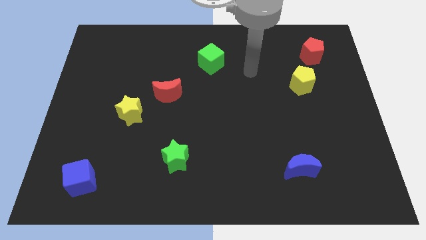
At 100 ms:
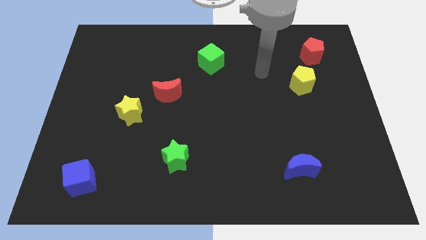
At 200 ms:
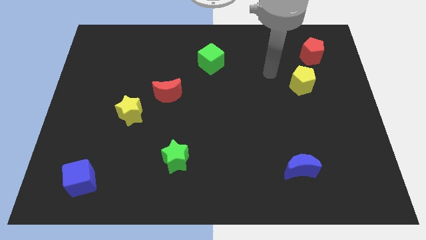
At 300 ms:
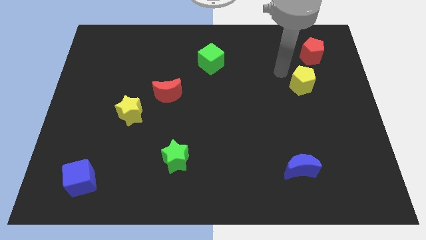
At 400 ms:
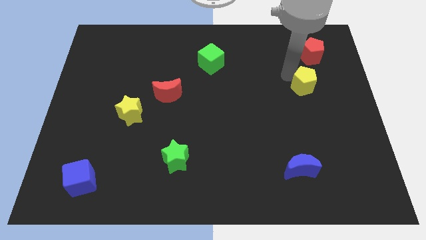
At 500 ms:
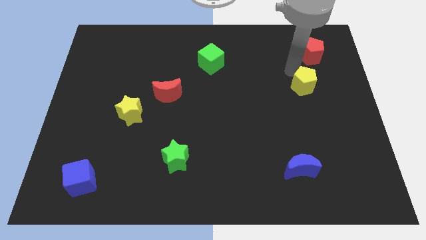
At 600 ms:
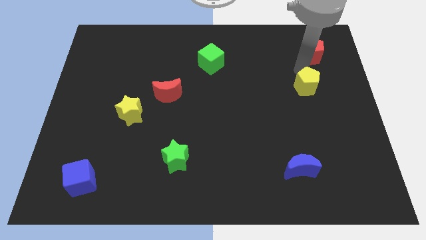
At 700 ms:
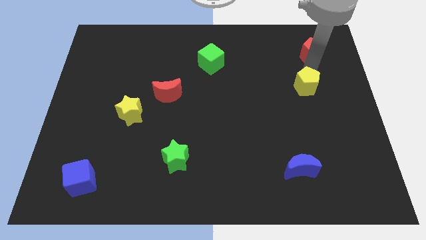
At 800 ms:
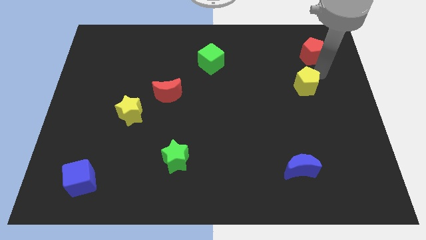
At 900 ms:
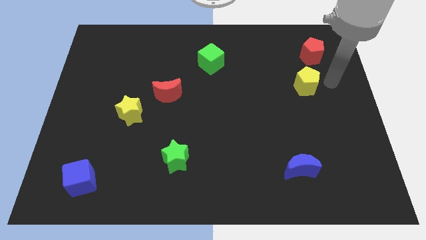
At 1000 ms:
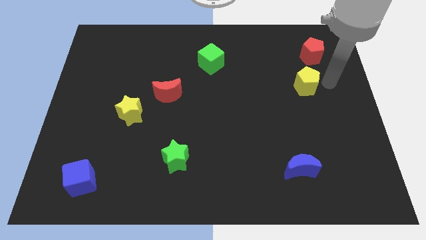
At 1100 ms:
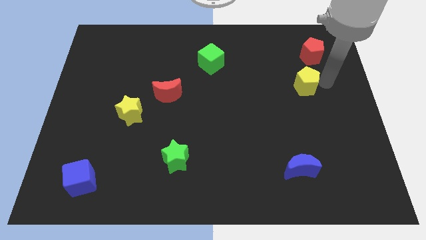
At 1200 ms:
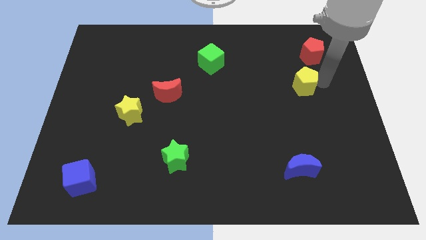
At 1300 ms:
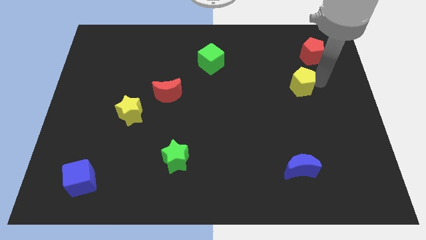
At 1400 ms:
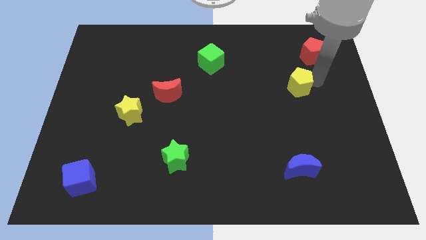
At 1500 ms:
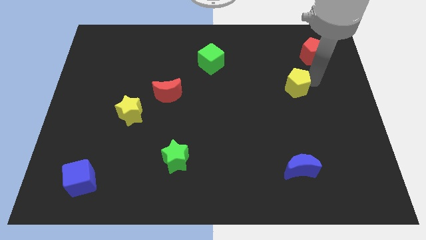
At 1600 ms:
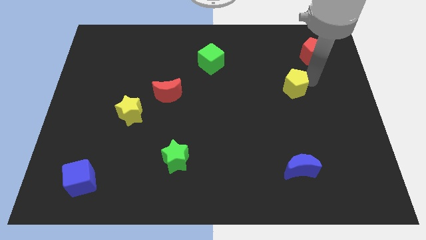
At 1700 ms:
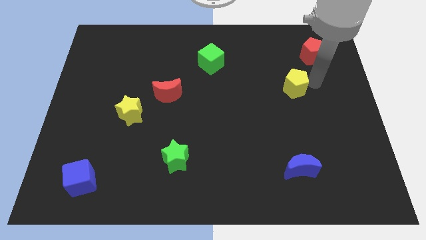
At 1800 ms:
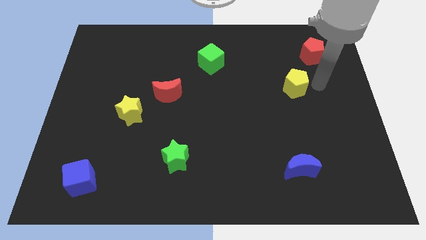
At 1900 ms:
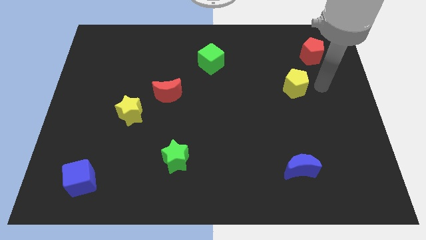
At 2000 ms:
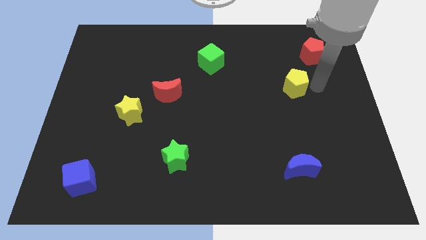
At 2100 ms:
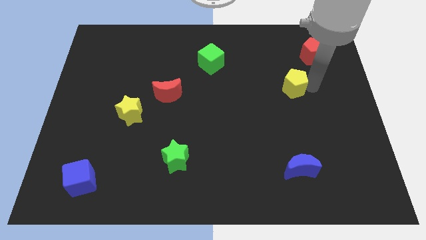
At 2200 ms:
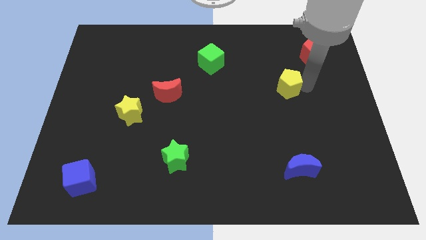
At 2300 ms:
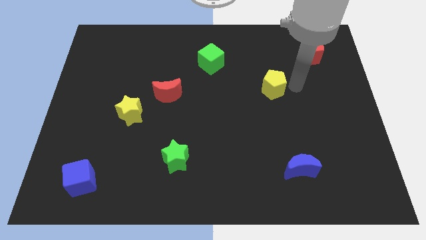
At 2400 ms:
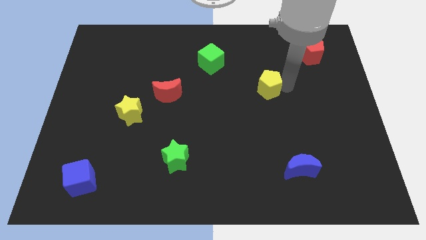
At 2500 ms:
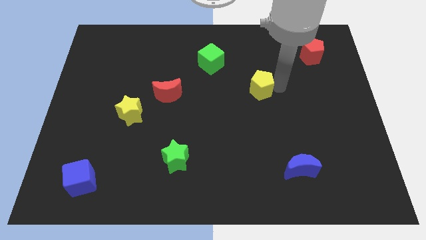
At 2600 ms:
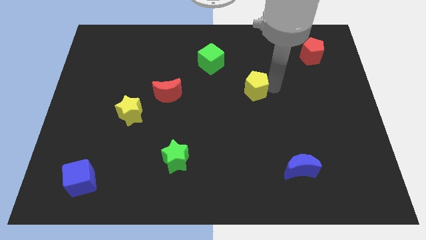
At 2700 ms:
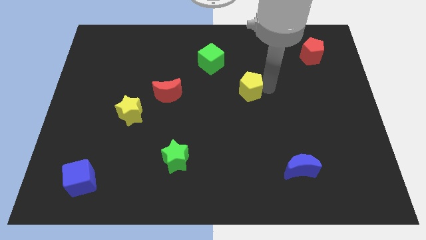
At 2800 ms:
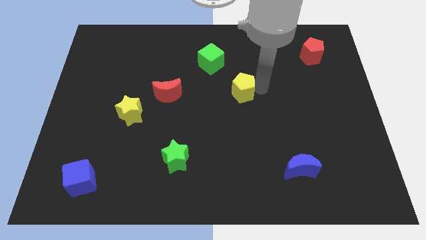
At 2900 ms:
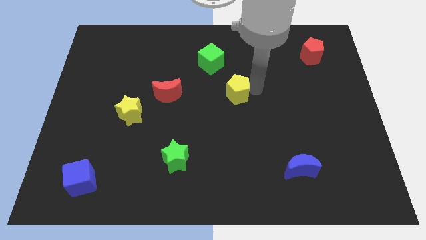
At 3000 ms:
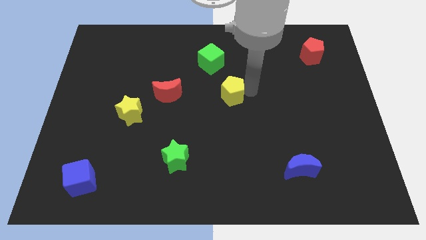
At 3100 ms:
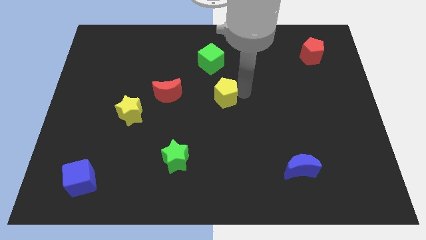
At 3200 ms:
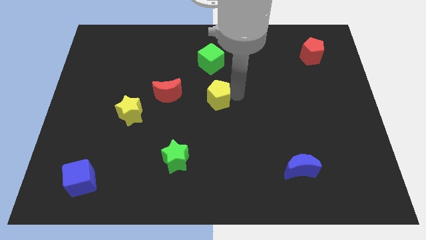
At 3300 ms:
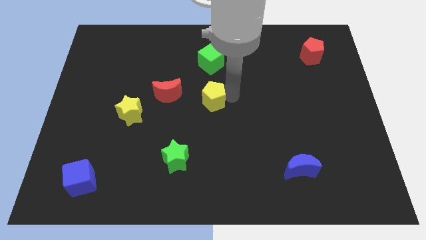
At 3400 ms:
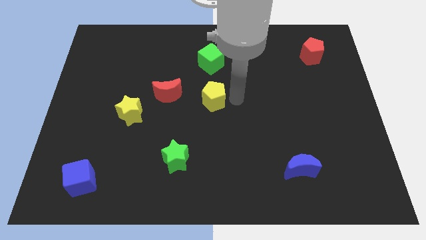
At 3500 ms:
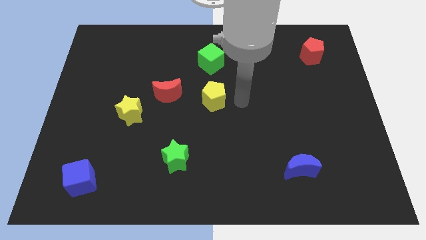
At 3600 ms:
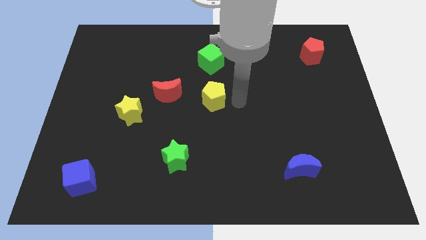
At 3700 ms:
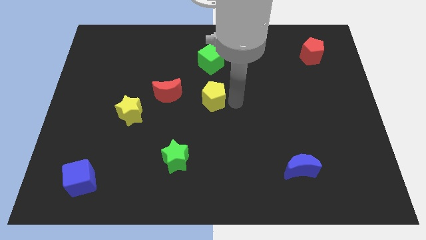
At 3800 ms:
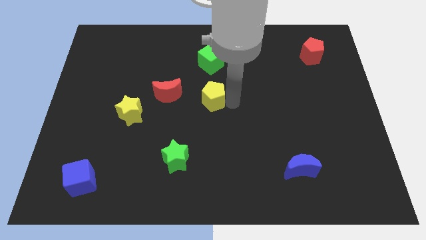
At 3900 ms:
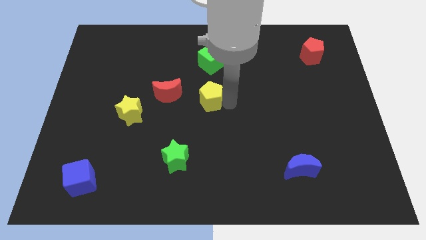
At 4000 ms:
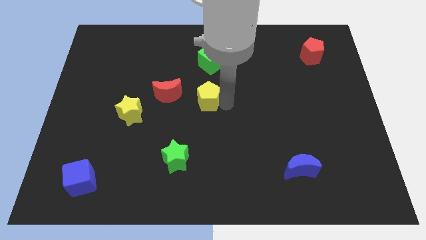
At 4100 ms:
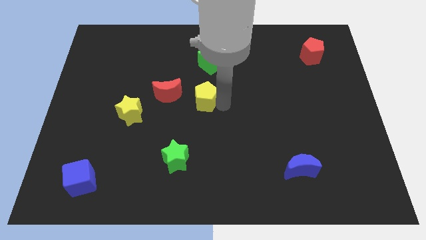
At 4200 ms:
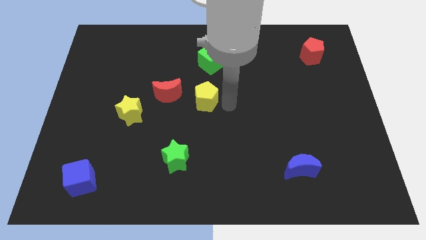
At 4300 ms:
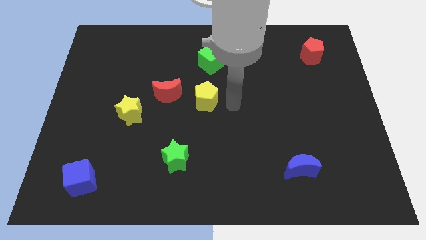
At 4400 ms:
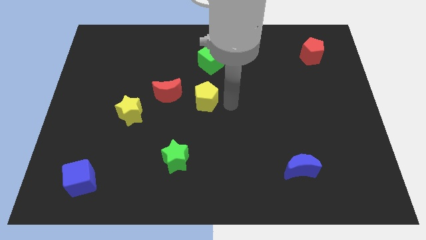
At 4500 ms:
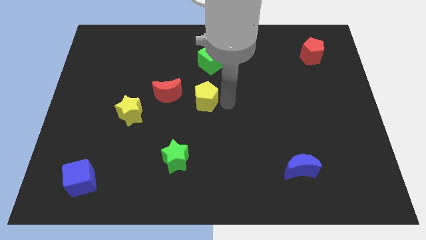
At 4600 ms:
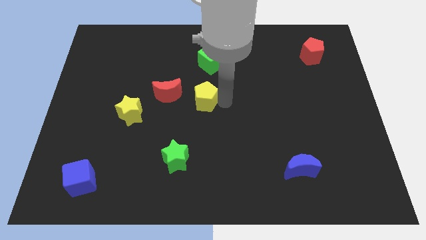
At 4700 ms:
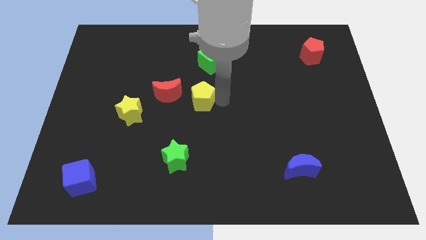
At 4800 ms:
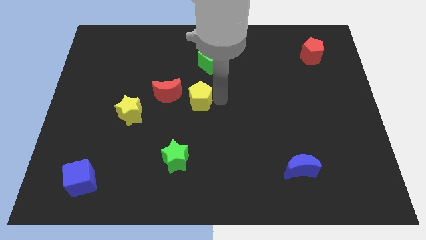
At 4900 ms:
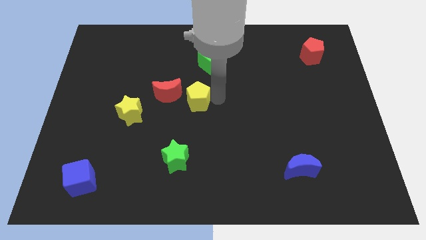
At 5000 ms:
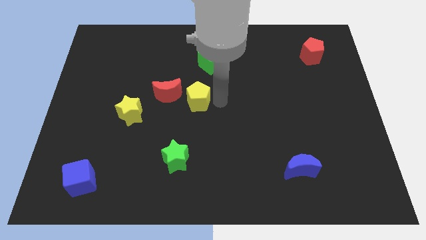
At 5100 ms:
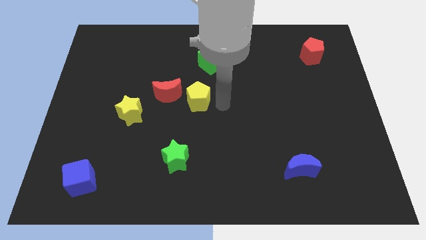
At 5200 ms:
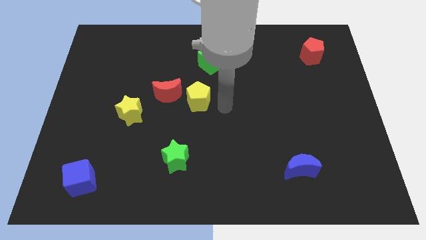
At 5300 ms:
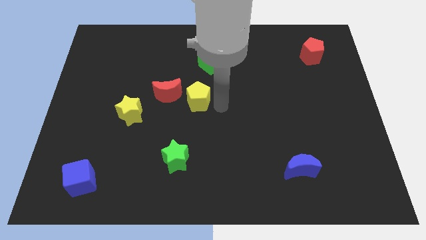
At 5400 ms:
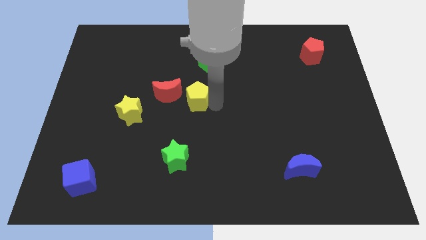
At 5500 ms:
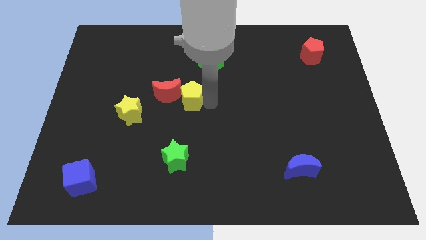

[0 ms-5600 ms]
push the yellow pentagon to the red moon

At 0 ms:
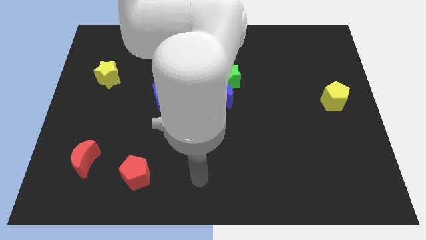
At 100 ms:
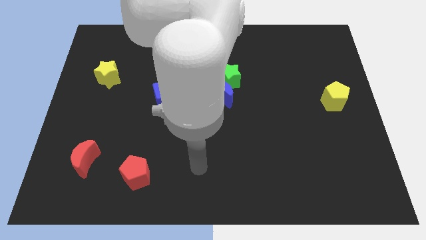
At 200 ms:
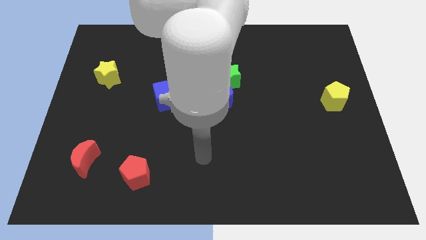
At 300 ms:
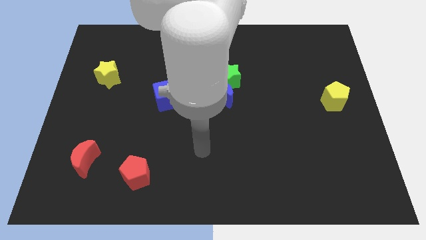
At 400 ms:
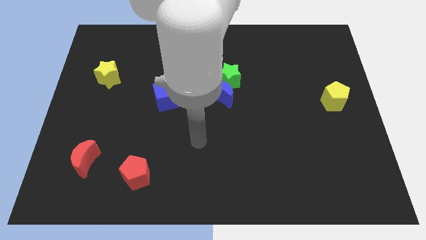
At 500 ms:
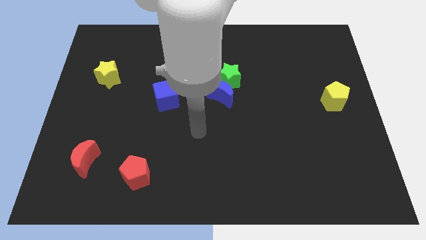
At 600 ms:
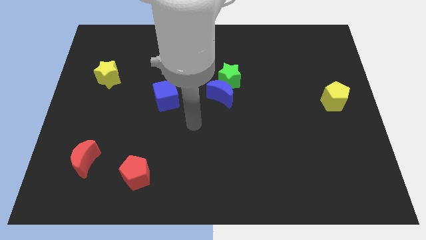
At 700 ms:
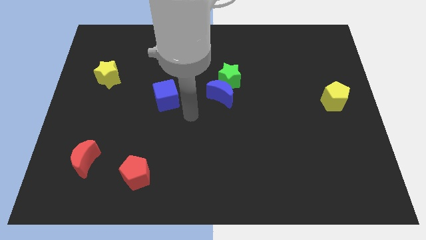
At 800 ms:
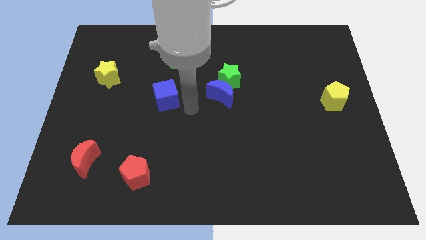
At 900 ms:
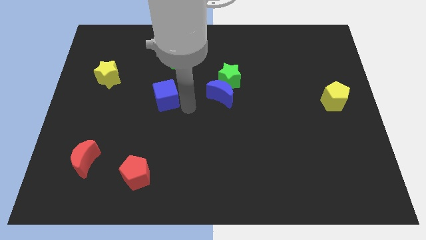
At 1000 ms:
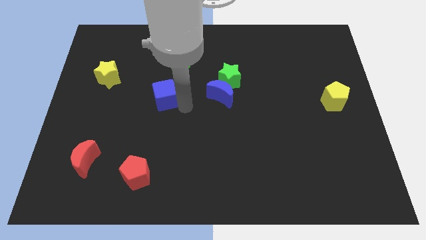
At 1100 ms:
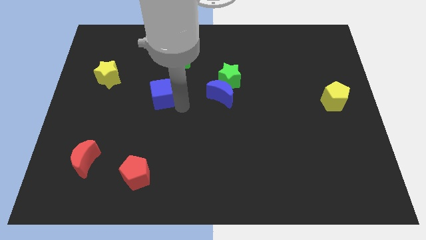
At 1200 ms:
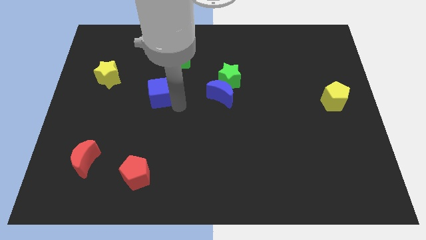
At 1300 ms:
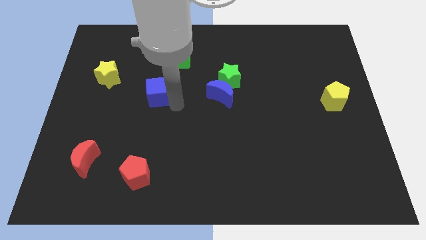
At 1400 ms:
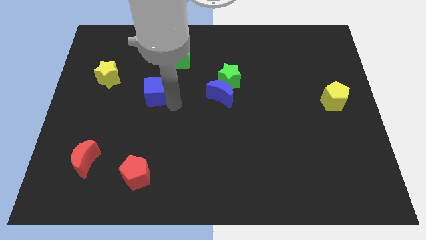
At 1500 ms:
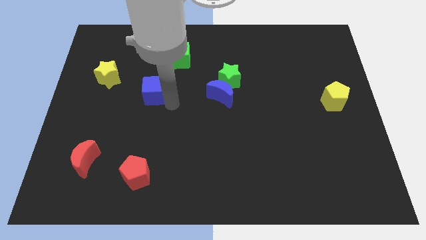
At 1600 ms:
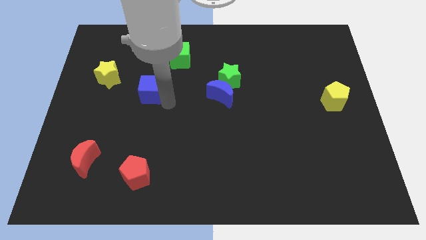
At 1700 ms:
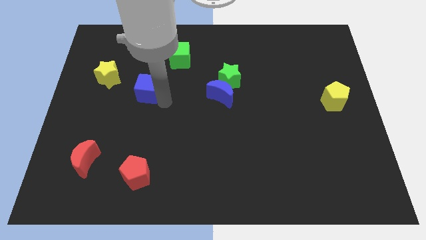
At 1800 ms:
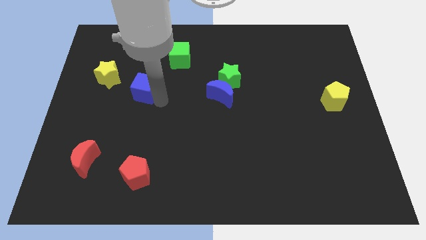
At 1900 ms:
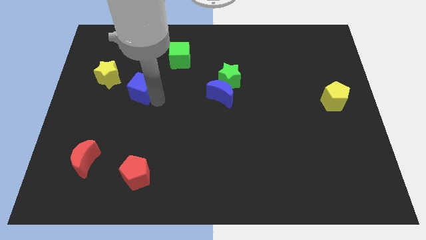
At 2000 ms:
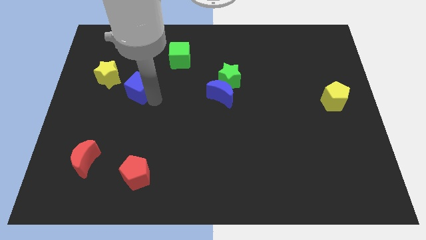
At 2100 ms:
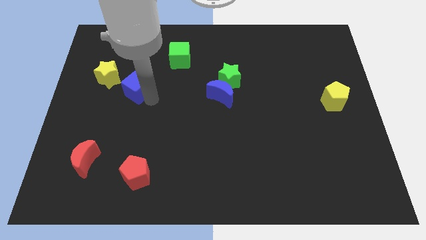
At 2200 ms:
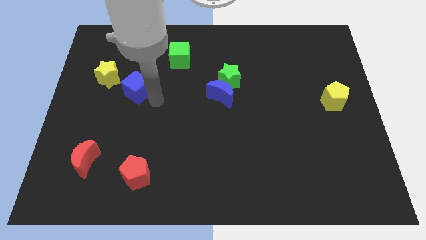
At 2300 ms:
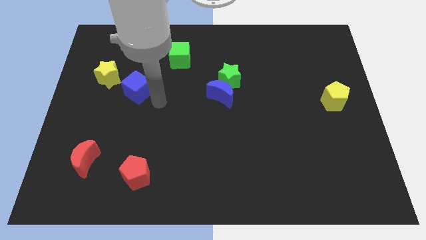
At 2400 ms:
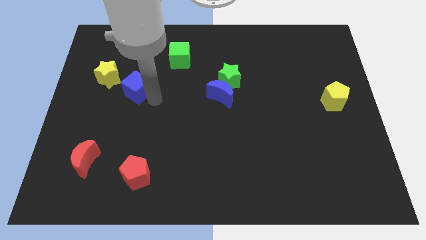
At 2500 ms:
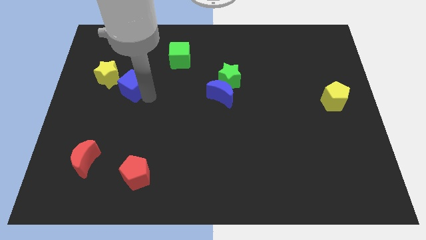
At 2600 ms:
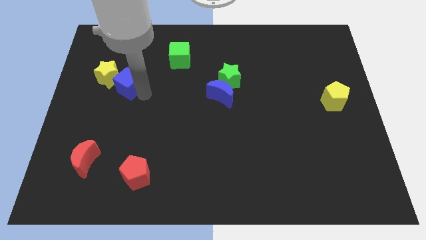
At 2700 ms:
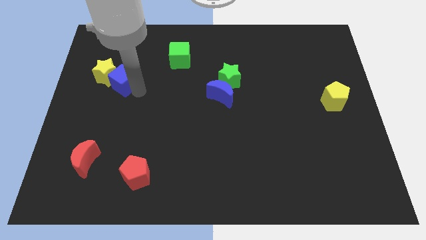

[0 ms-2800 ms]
move the blue cube next to the yellow star
